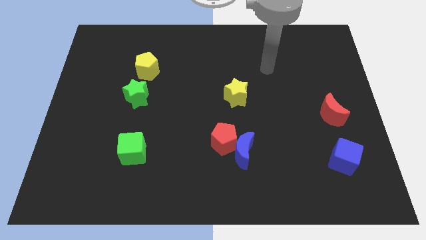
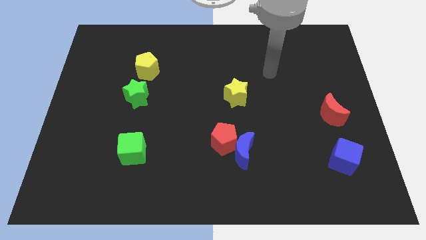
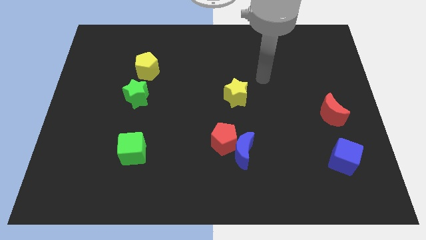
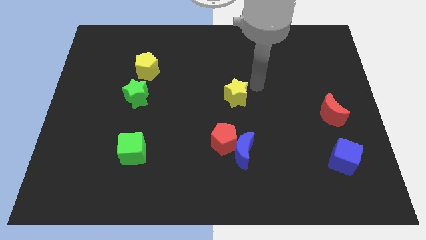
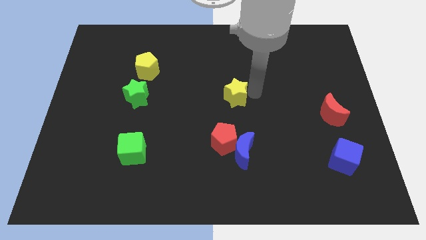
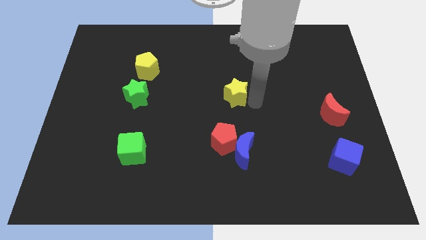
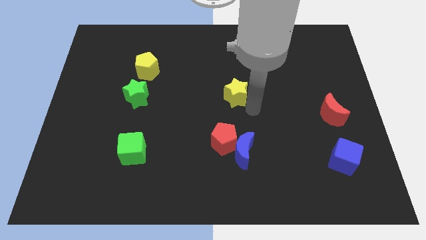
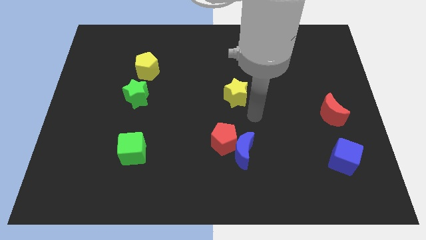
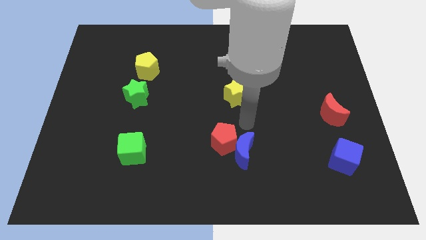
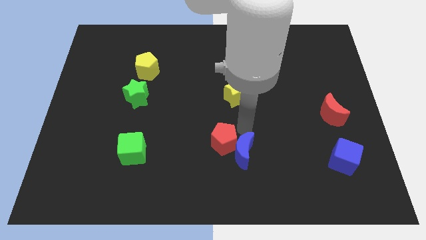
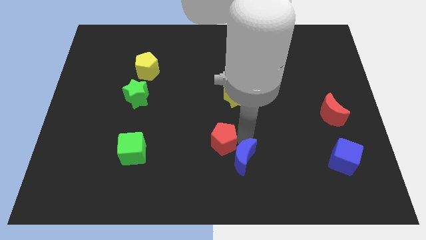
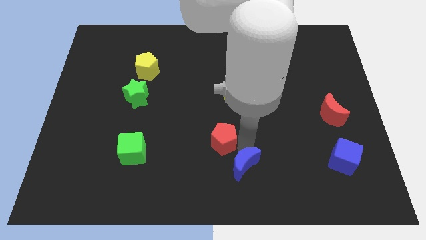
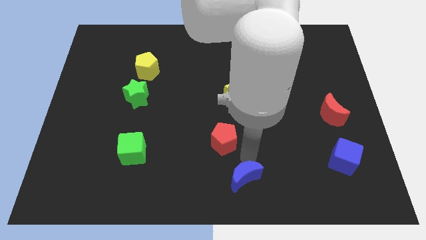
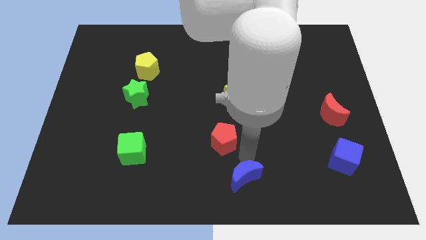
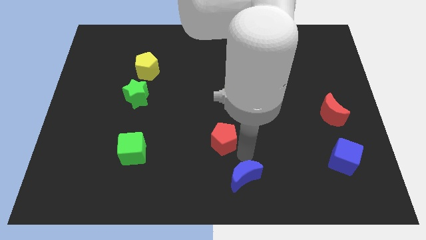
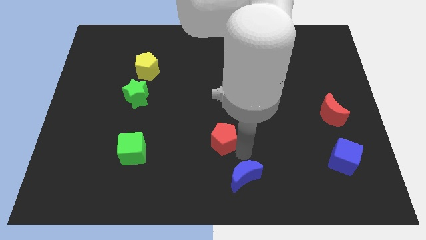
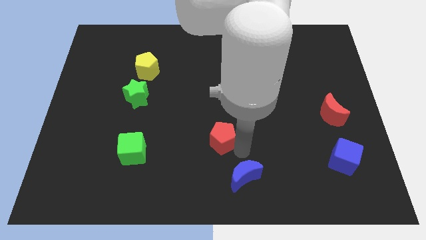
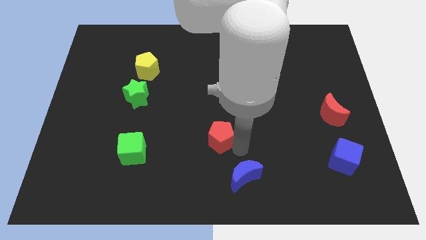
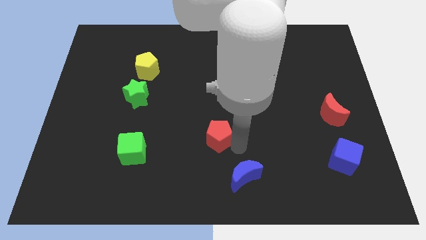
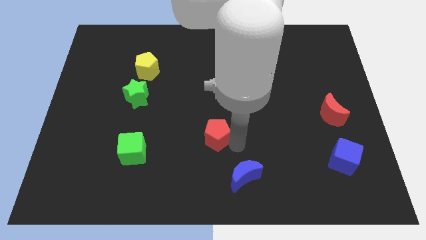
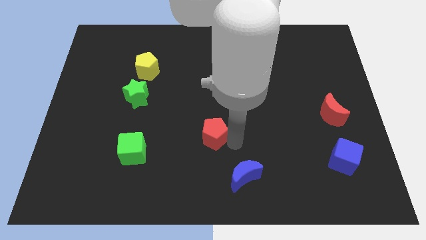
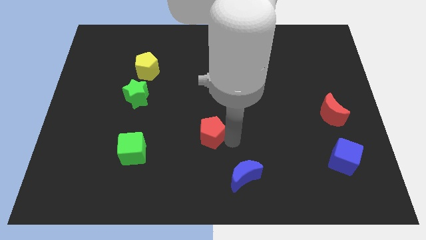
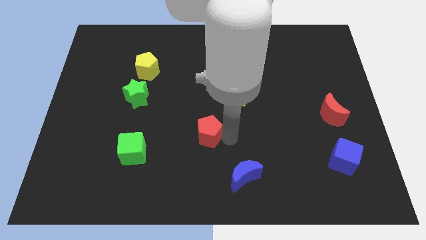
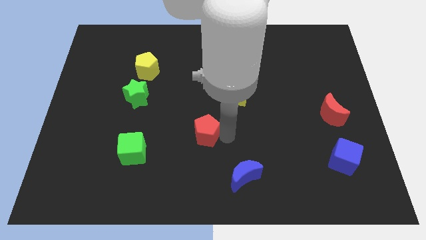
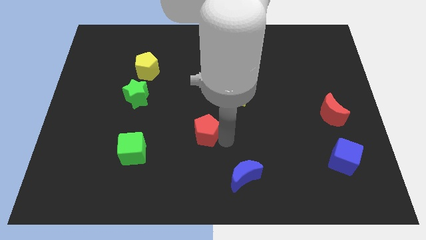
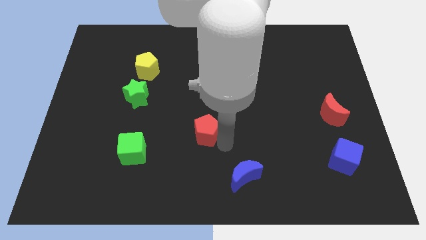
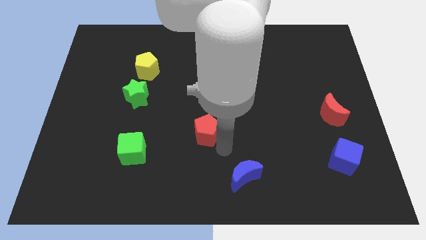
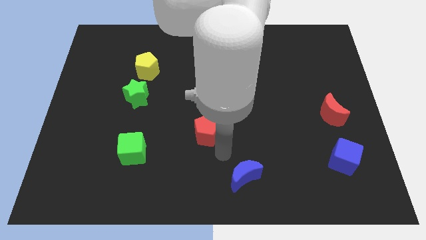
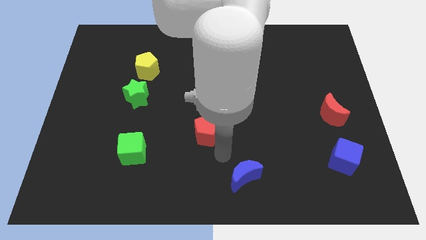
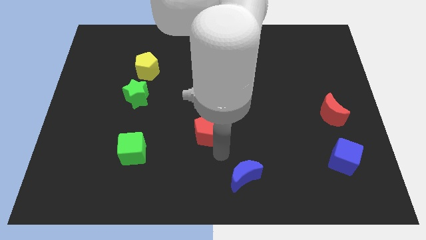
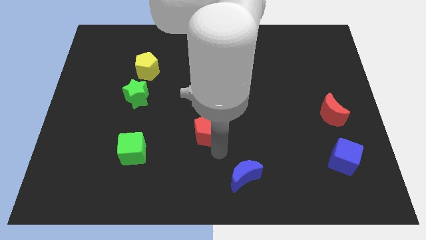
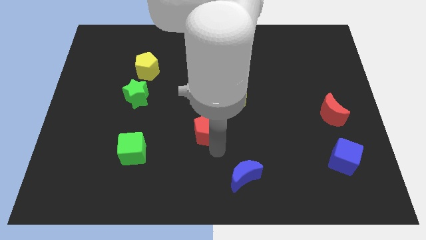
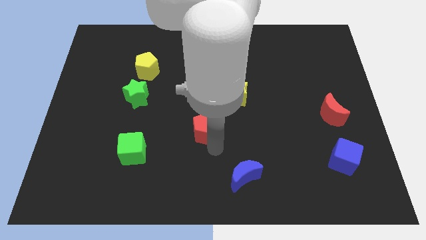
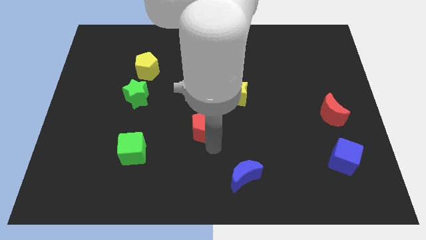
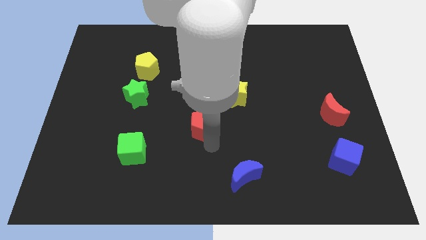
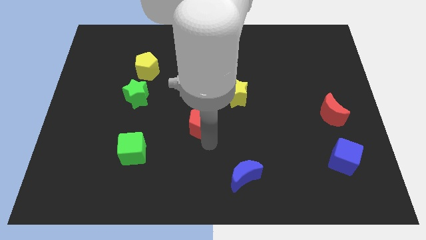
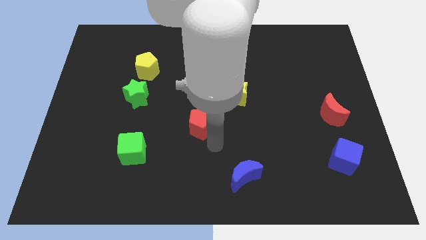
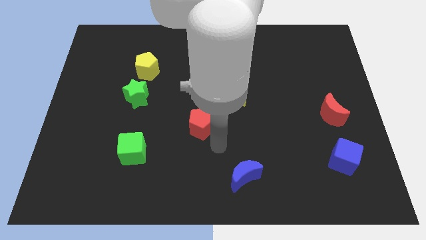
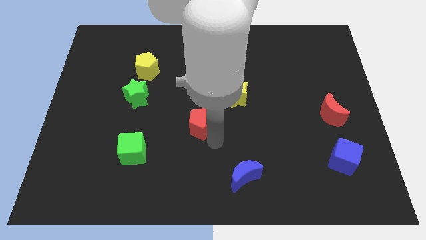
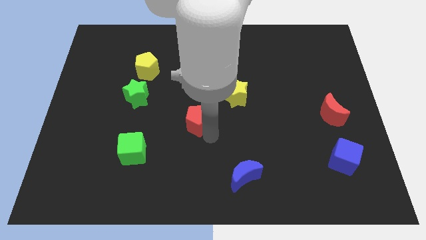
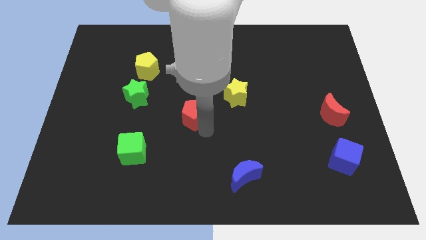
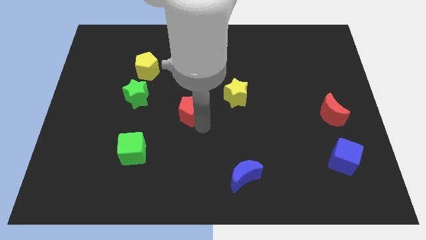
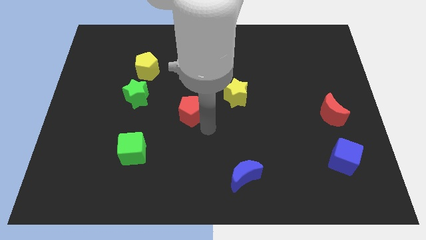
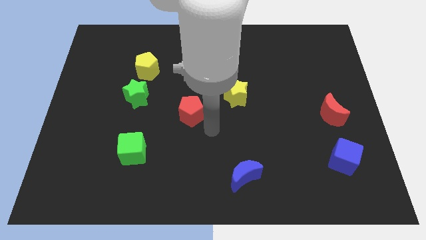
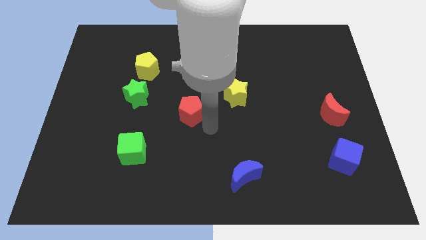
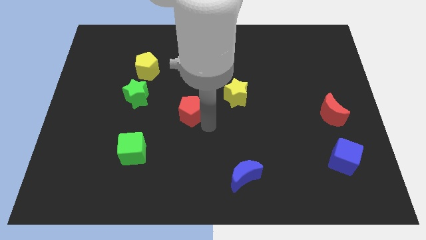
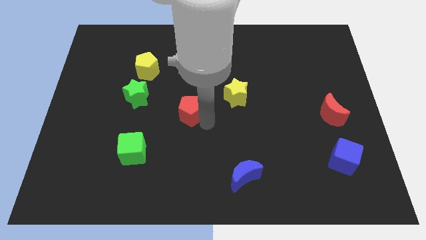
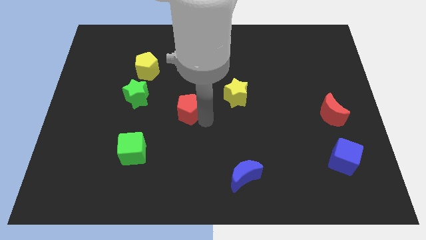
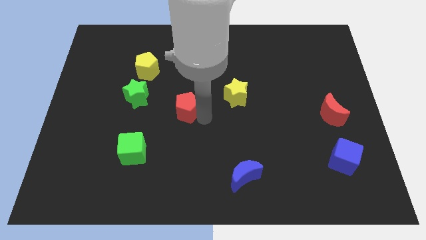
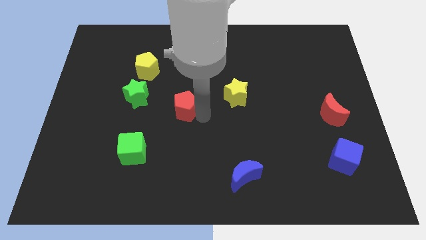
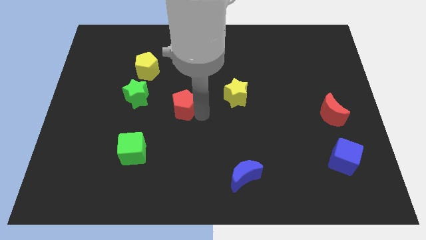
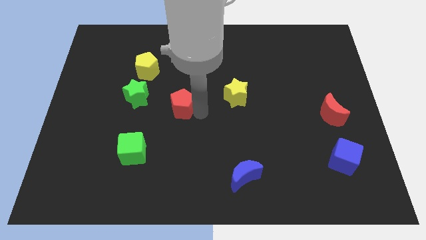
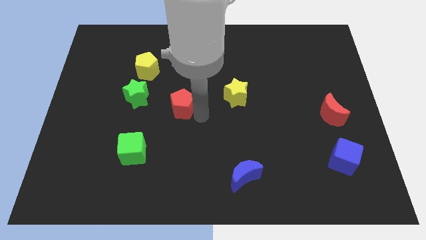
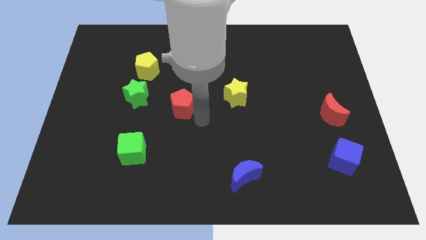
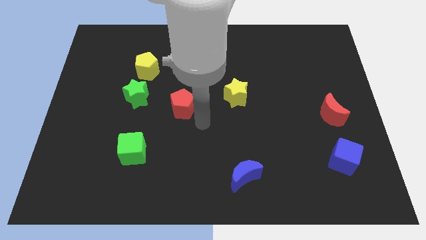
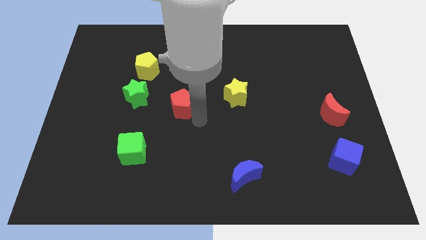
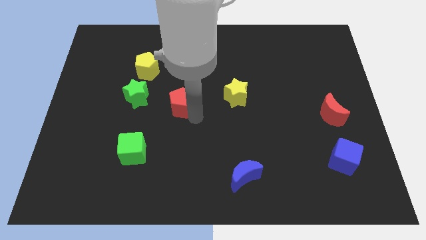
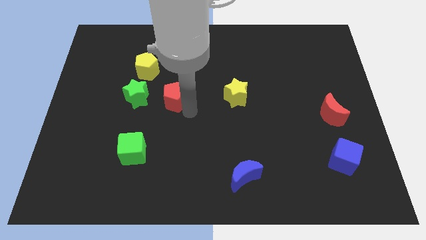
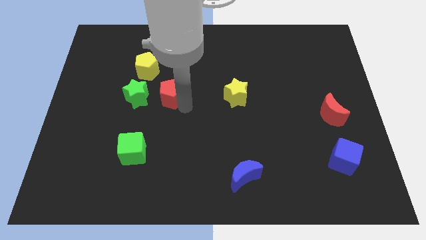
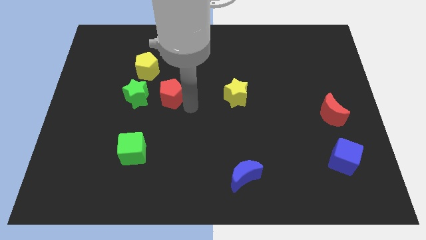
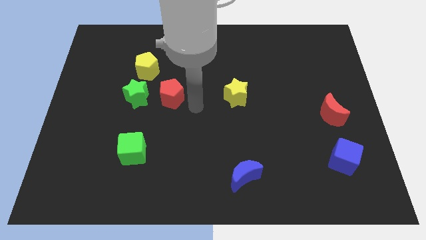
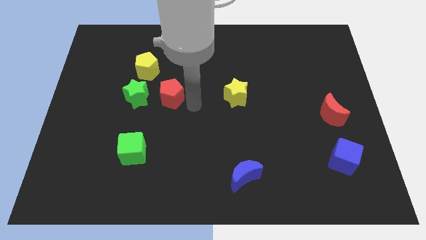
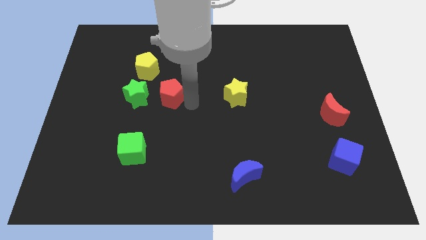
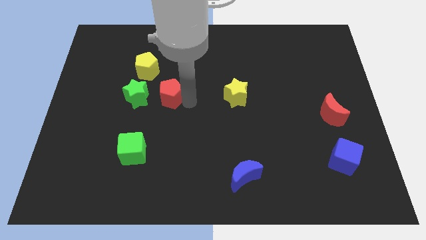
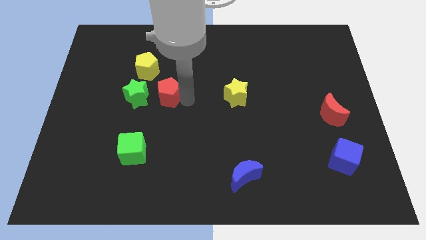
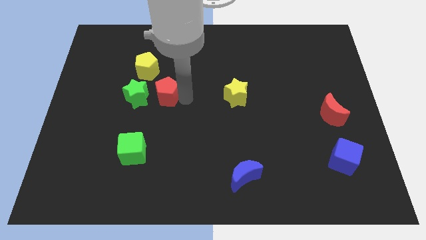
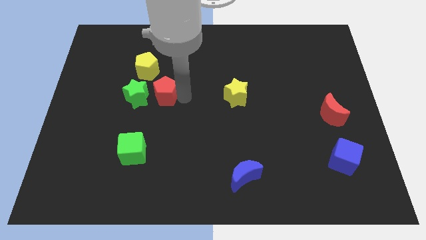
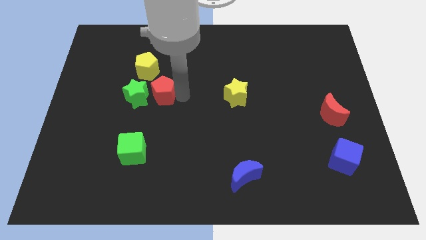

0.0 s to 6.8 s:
push the red pentagon up and to the left

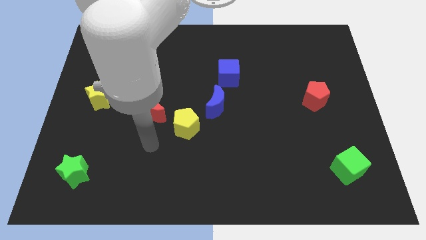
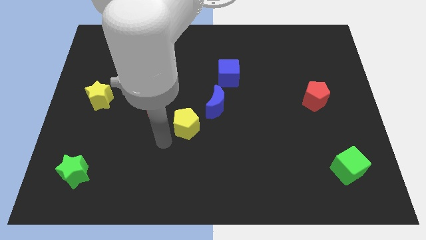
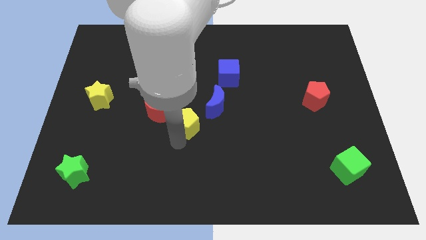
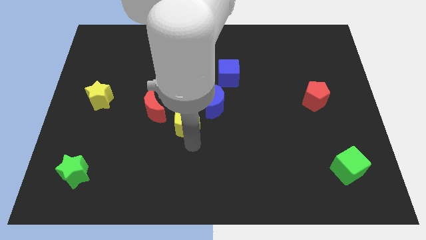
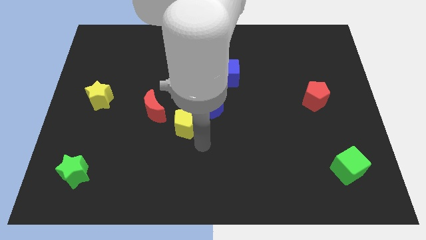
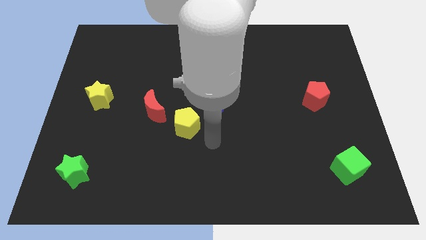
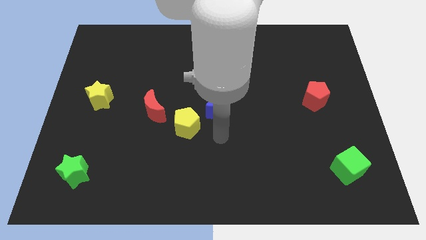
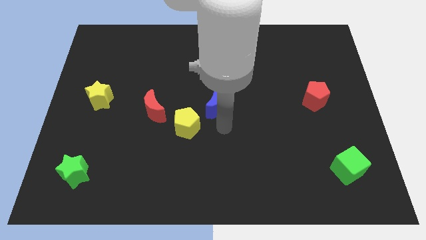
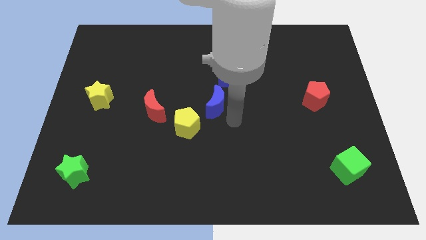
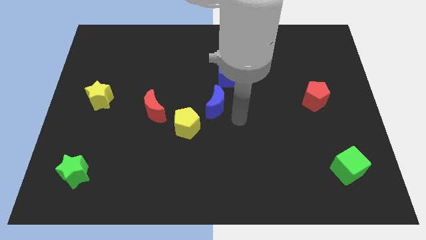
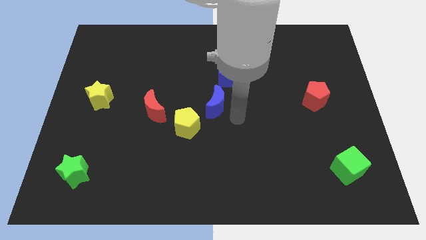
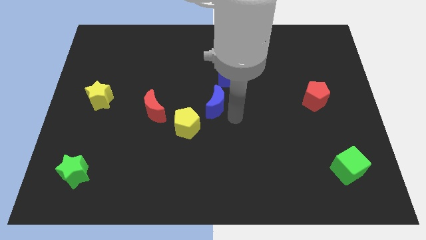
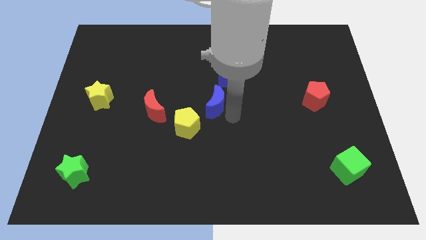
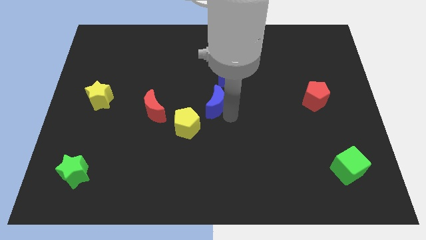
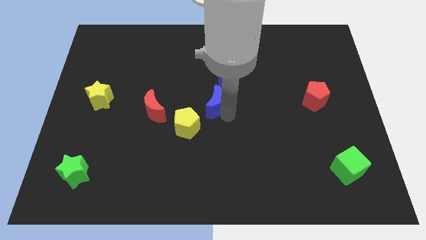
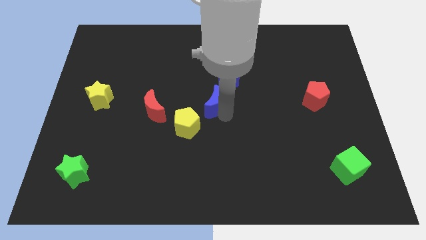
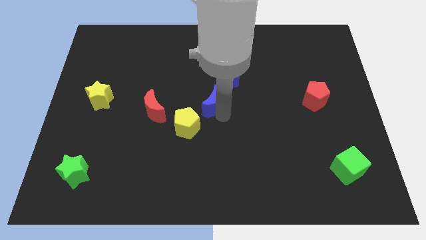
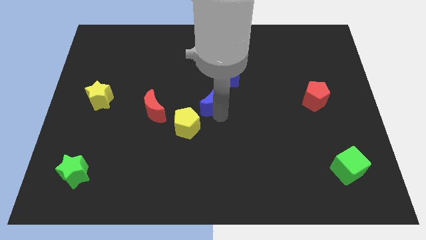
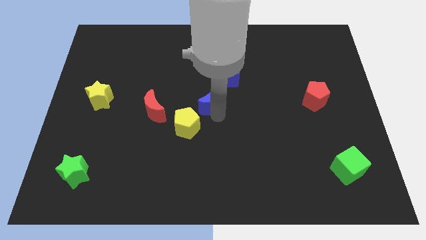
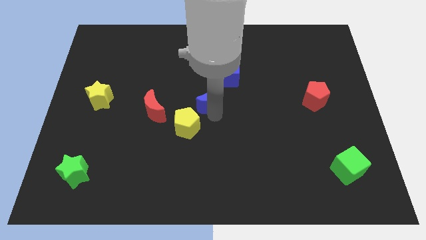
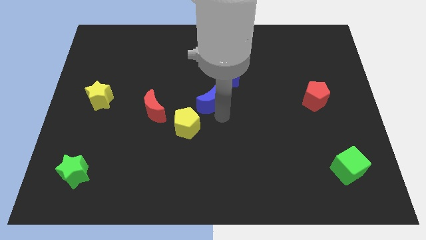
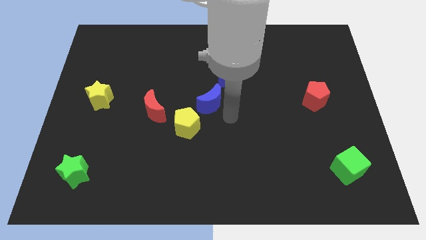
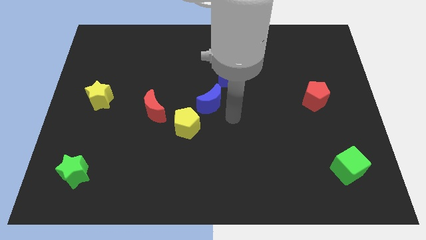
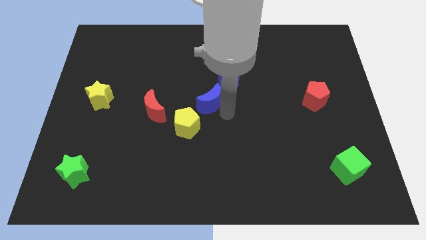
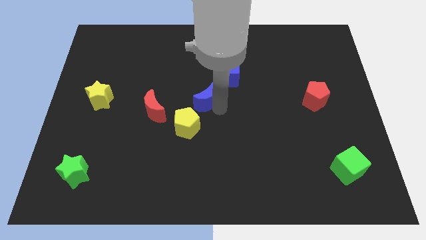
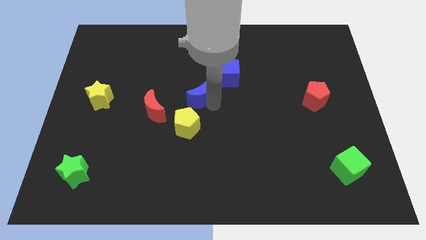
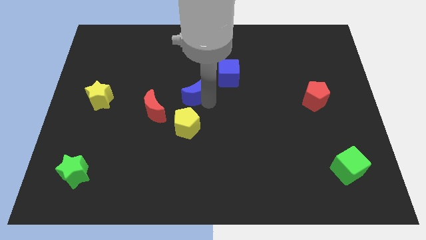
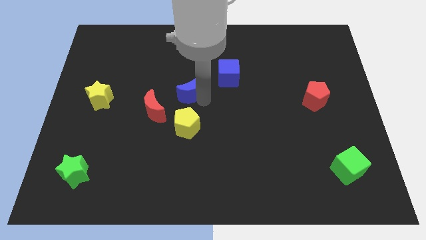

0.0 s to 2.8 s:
push the blue moon up and left a little bit
